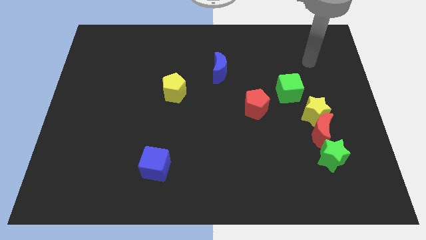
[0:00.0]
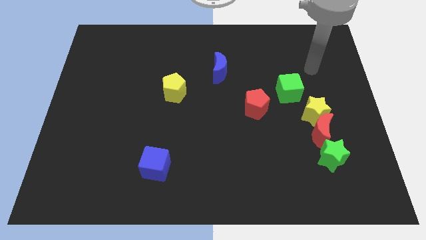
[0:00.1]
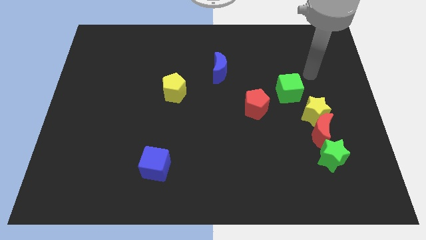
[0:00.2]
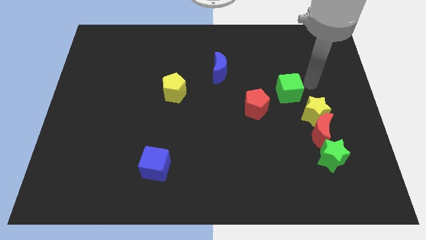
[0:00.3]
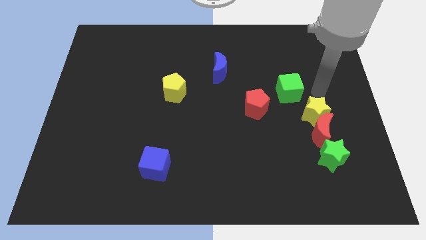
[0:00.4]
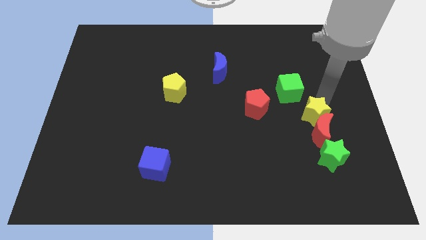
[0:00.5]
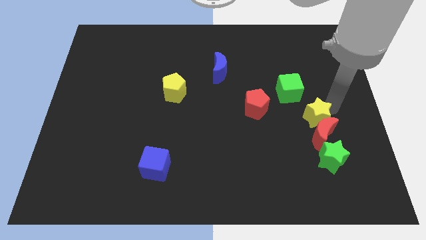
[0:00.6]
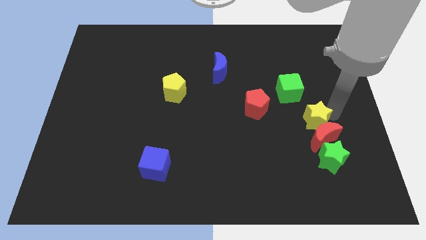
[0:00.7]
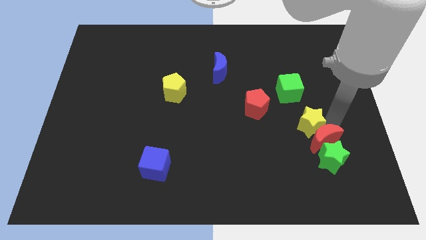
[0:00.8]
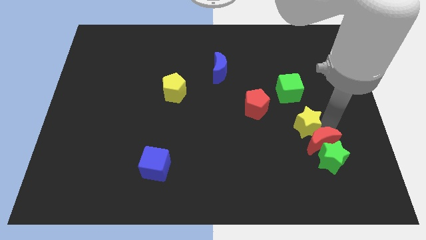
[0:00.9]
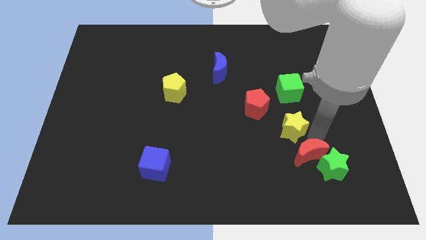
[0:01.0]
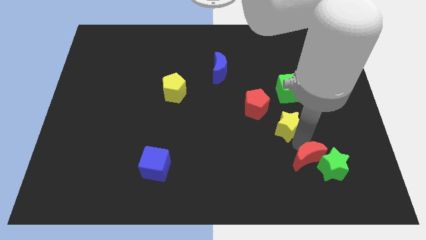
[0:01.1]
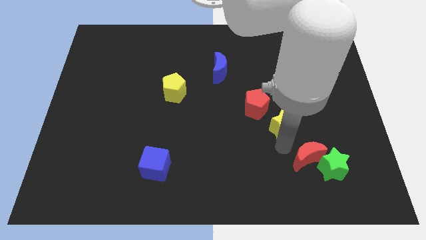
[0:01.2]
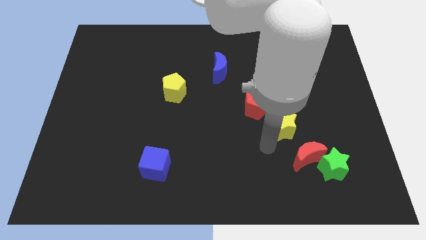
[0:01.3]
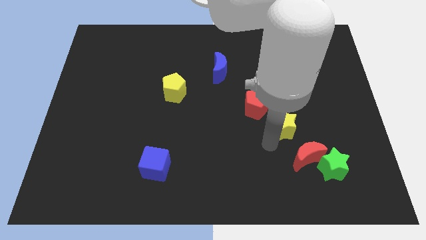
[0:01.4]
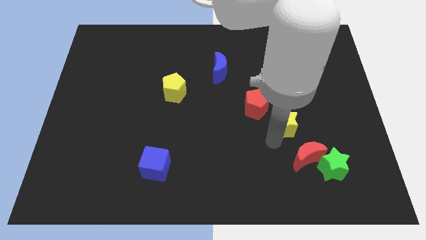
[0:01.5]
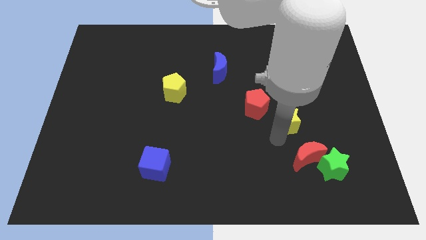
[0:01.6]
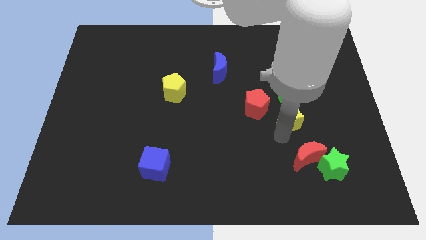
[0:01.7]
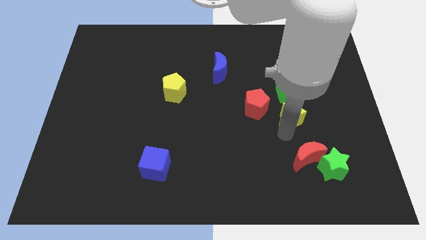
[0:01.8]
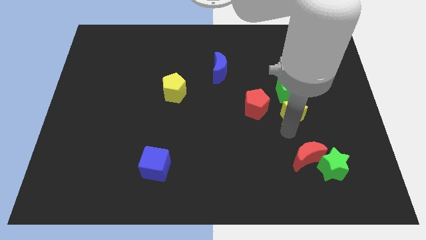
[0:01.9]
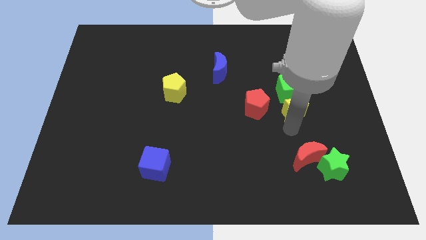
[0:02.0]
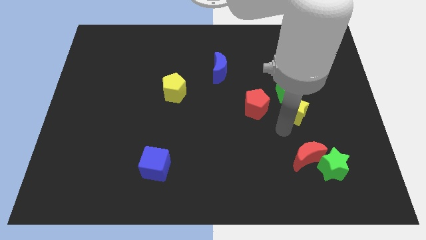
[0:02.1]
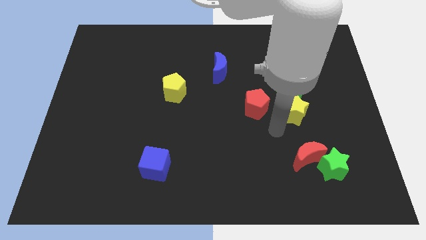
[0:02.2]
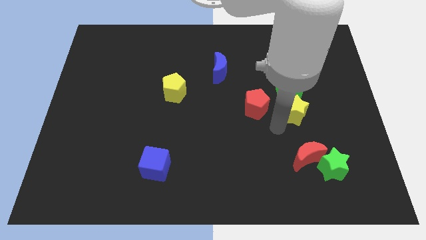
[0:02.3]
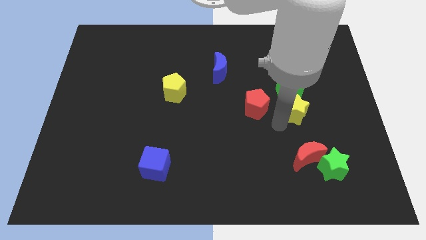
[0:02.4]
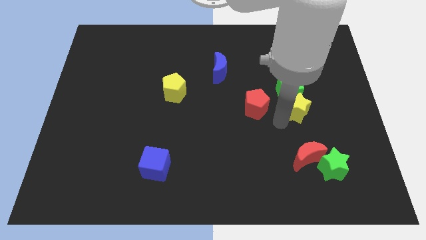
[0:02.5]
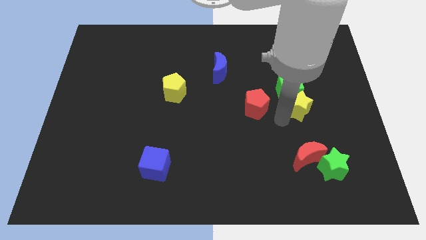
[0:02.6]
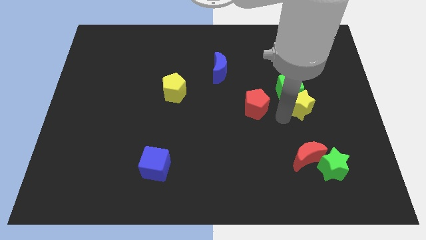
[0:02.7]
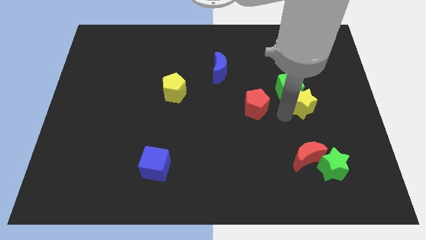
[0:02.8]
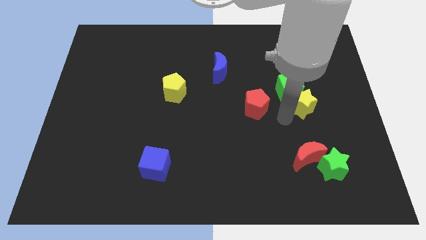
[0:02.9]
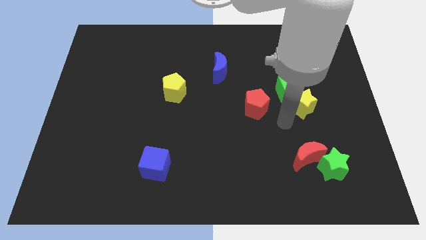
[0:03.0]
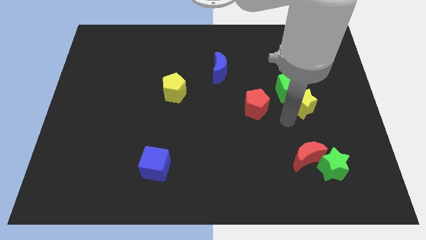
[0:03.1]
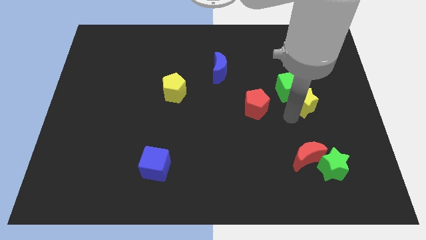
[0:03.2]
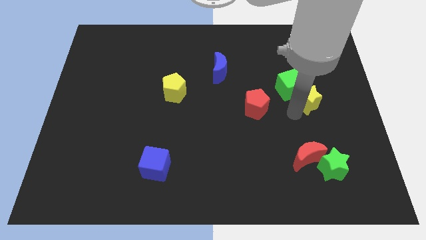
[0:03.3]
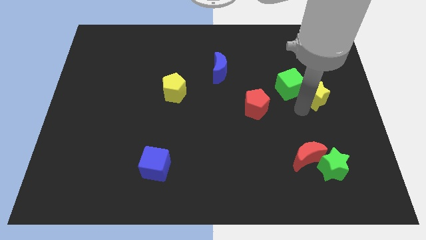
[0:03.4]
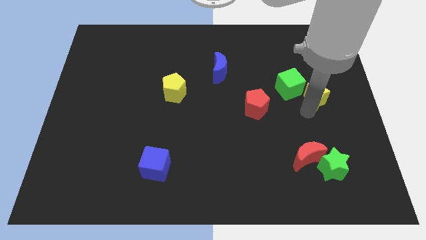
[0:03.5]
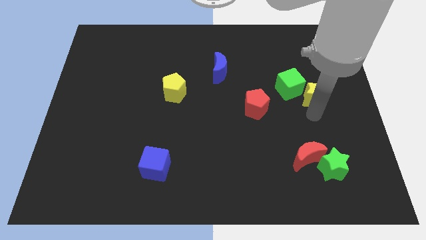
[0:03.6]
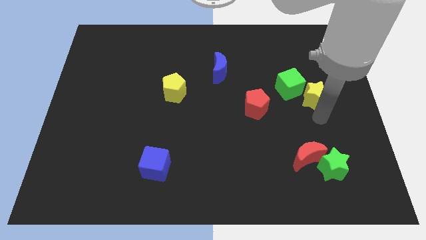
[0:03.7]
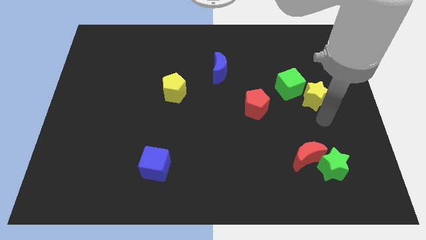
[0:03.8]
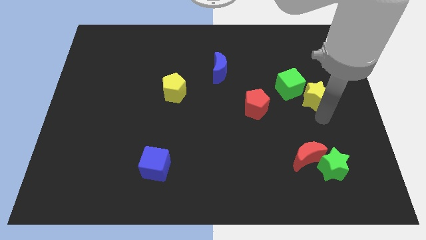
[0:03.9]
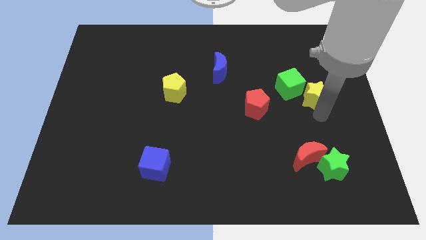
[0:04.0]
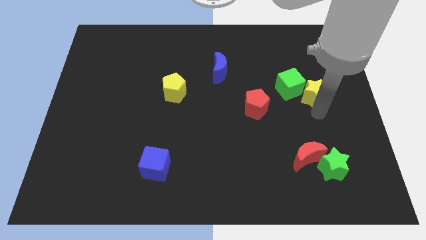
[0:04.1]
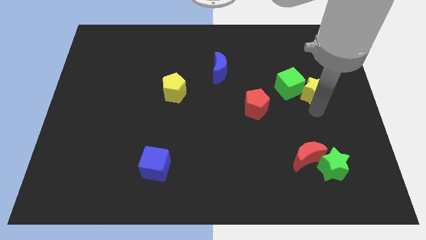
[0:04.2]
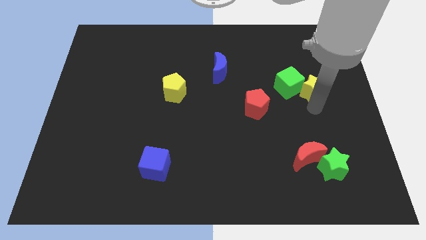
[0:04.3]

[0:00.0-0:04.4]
push the yellow star a bit up

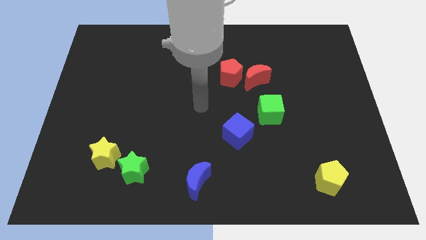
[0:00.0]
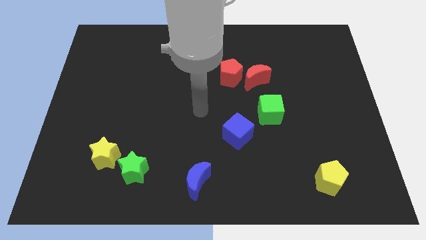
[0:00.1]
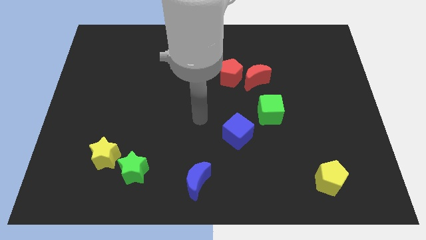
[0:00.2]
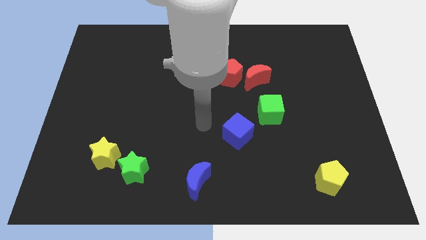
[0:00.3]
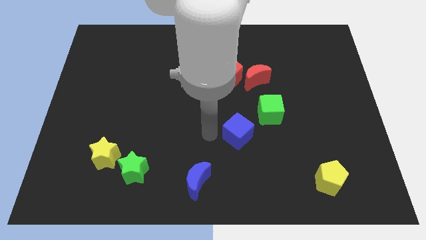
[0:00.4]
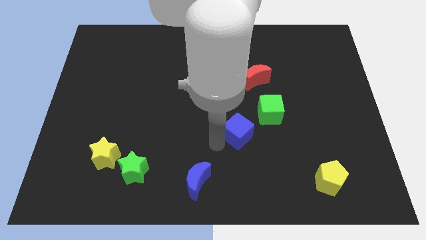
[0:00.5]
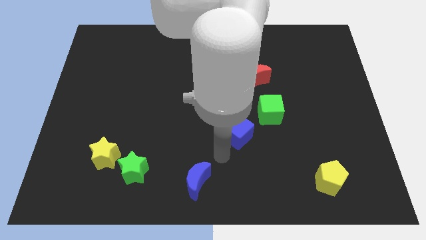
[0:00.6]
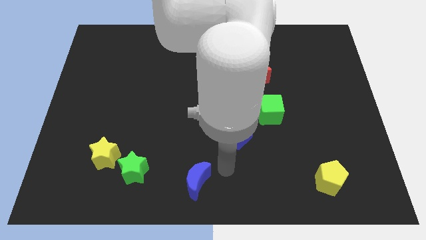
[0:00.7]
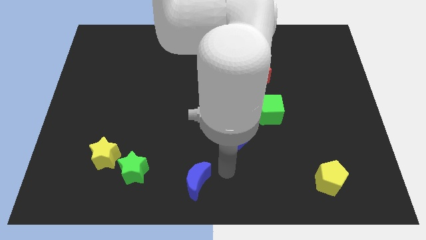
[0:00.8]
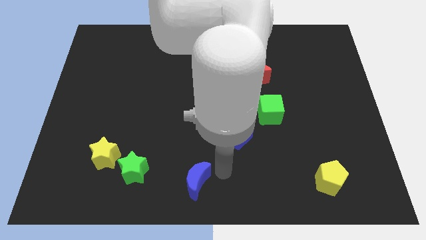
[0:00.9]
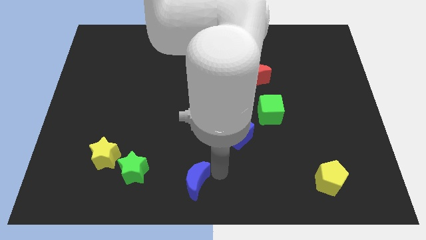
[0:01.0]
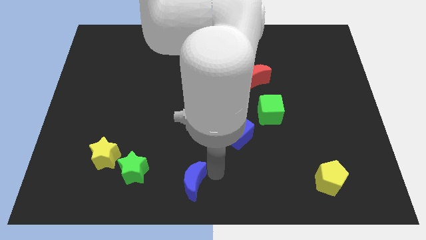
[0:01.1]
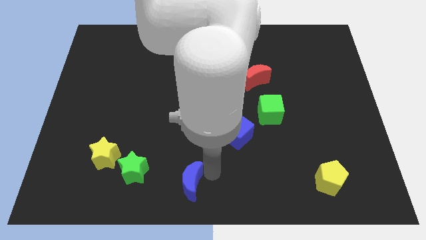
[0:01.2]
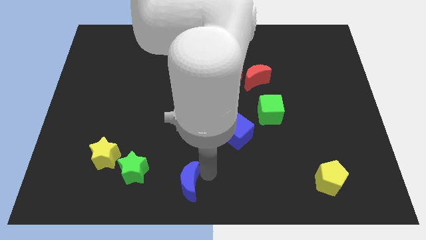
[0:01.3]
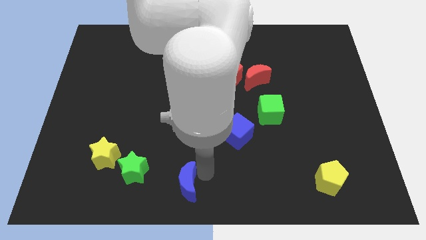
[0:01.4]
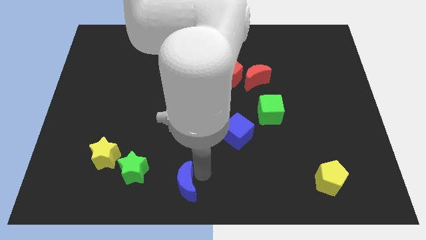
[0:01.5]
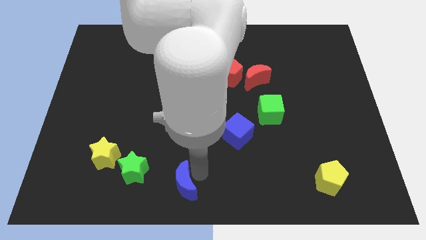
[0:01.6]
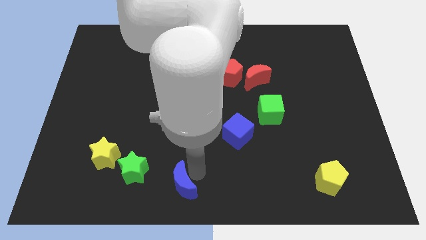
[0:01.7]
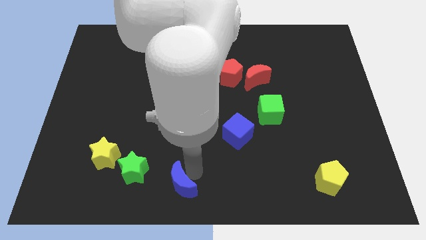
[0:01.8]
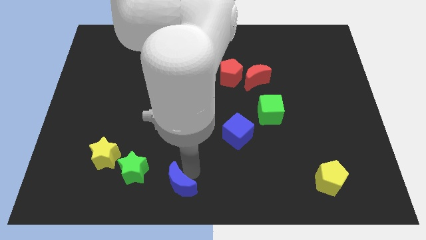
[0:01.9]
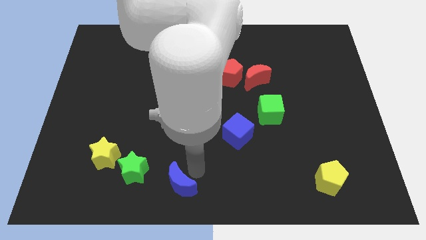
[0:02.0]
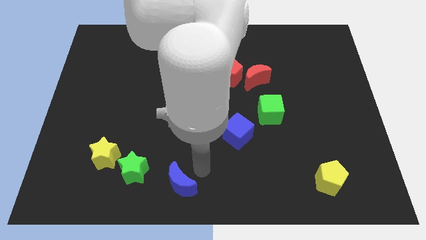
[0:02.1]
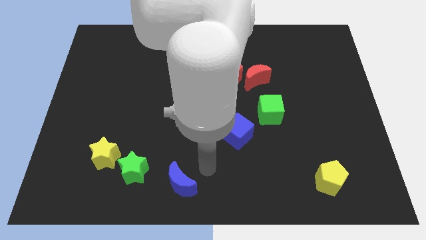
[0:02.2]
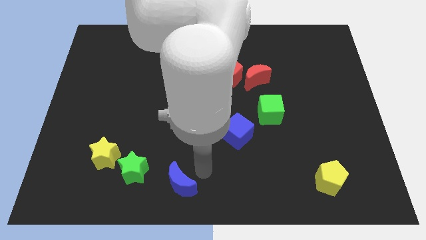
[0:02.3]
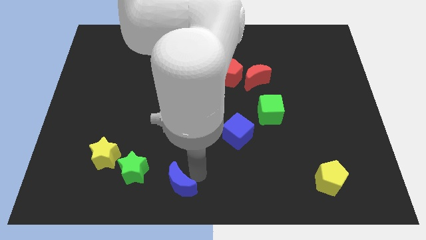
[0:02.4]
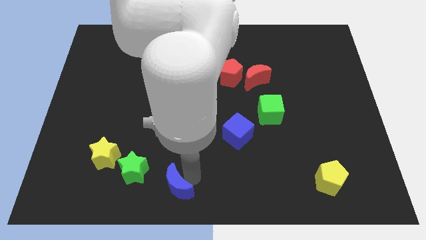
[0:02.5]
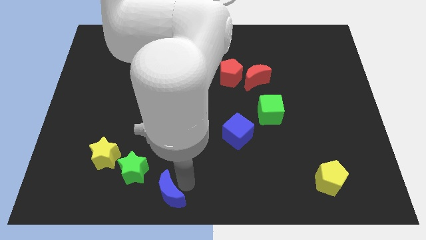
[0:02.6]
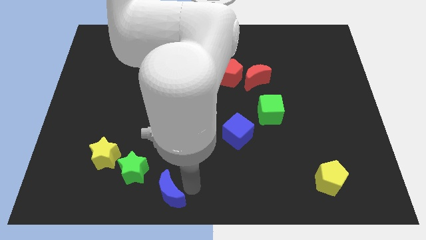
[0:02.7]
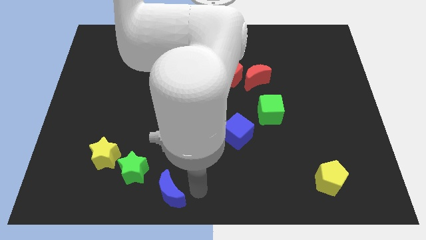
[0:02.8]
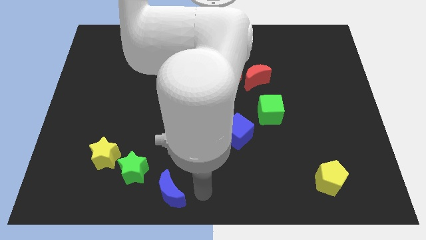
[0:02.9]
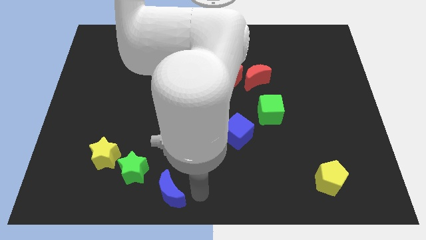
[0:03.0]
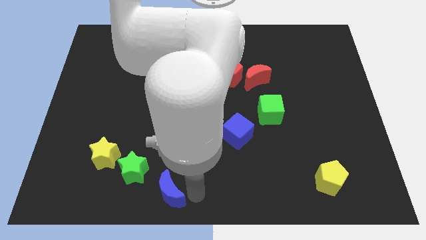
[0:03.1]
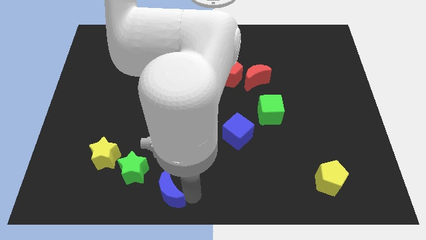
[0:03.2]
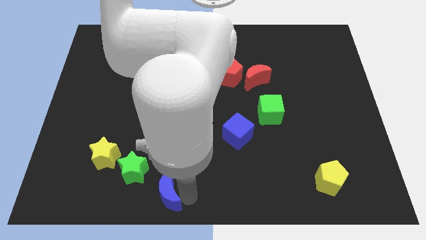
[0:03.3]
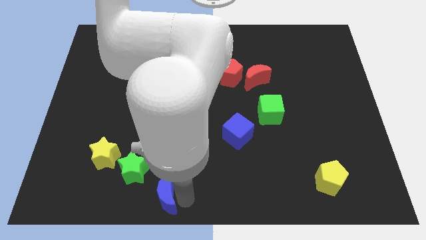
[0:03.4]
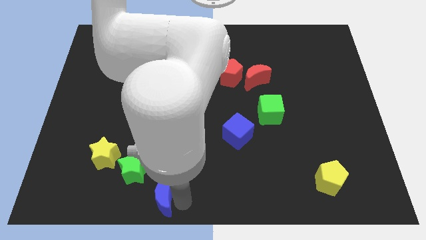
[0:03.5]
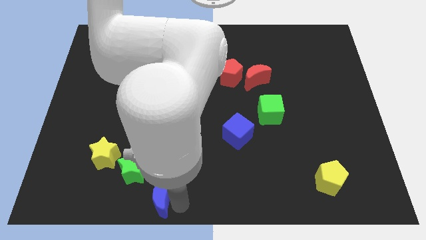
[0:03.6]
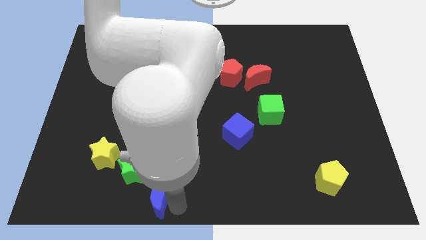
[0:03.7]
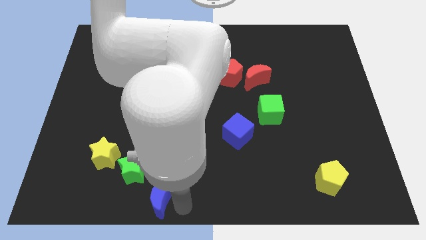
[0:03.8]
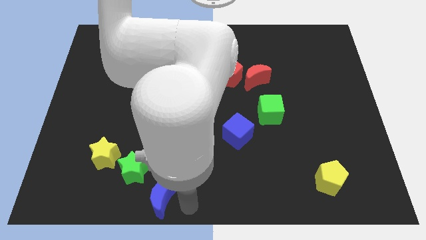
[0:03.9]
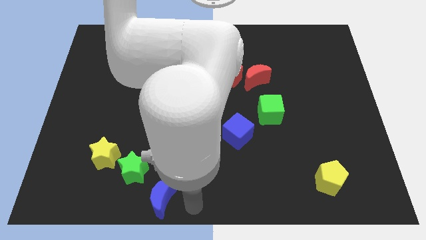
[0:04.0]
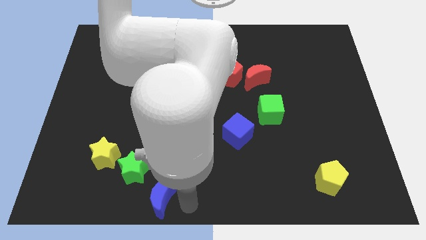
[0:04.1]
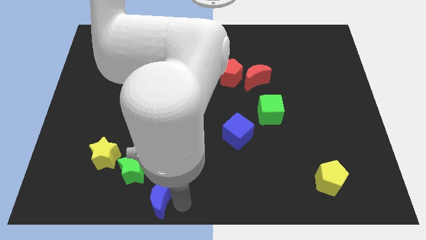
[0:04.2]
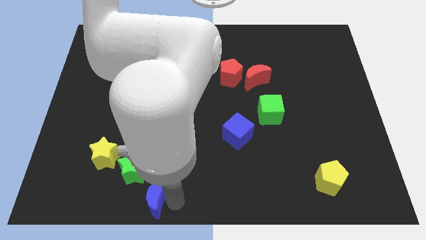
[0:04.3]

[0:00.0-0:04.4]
slide the blue moon left a little bit
